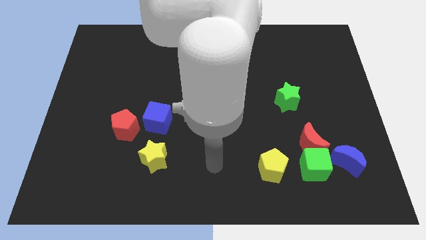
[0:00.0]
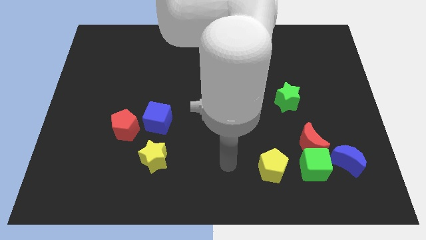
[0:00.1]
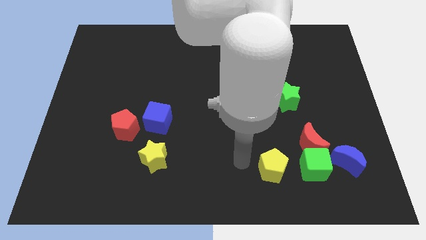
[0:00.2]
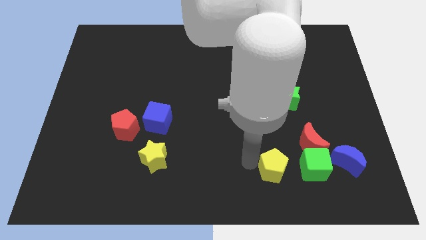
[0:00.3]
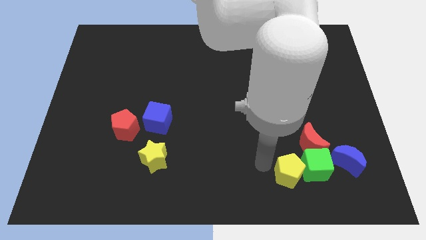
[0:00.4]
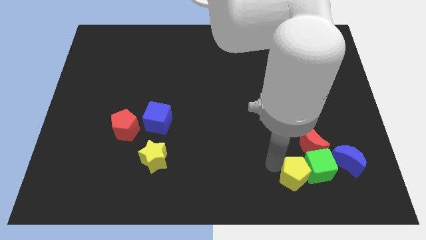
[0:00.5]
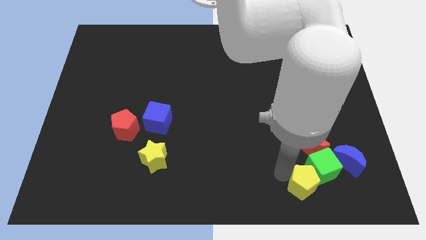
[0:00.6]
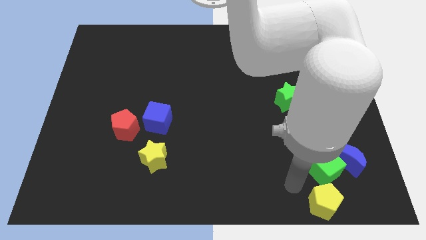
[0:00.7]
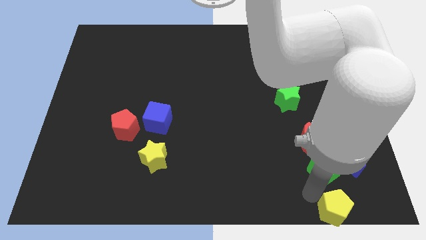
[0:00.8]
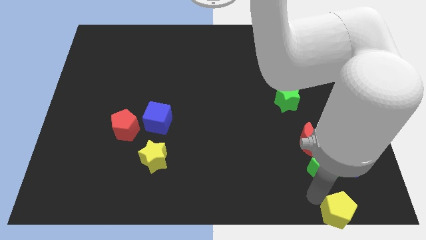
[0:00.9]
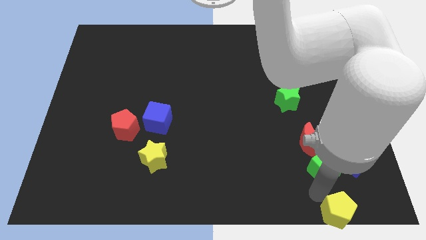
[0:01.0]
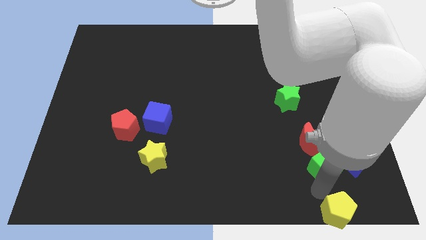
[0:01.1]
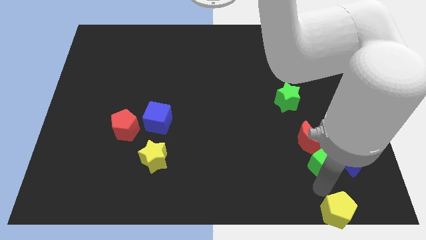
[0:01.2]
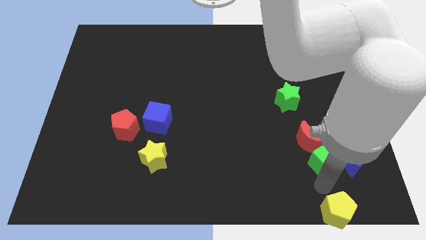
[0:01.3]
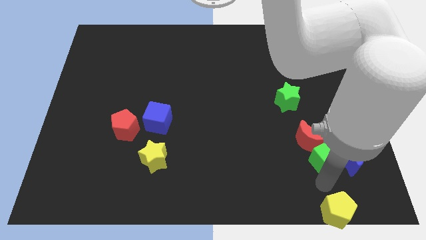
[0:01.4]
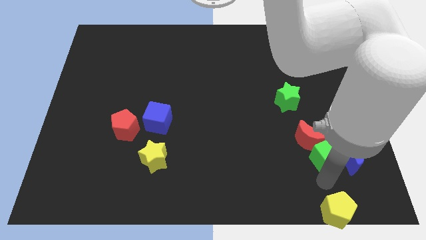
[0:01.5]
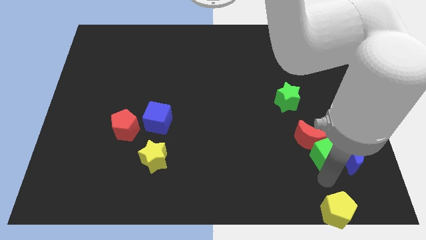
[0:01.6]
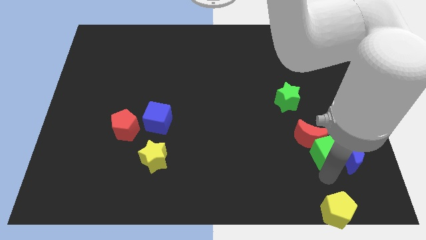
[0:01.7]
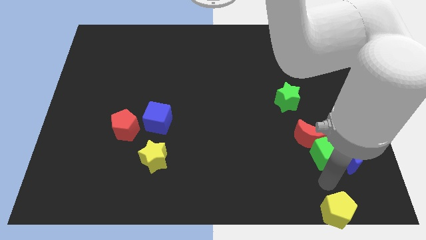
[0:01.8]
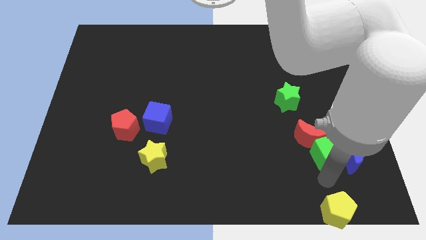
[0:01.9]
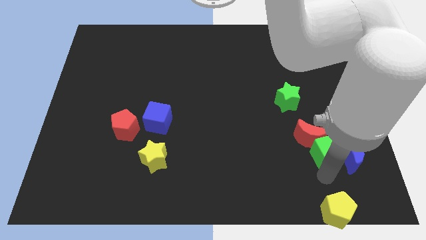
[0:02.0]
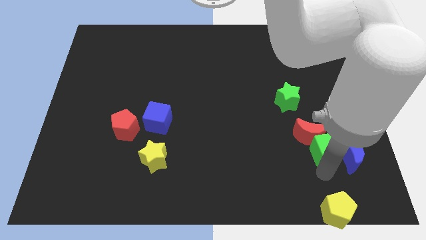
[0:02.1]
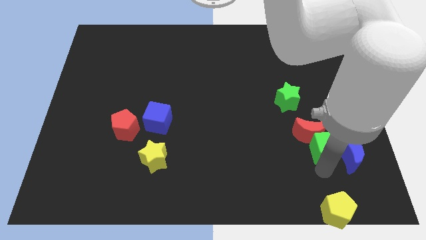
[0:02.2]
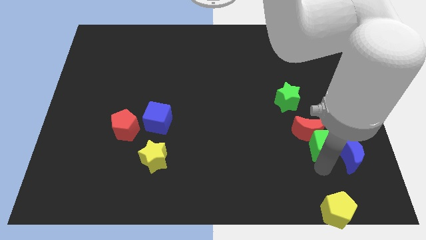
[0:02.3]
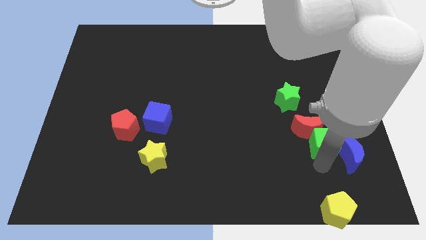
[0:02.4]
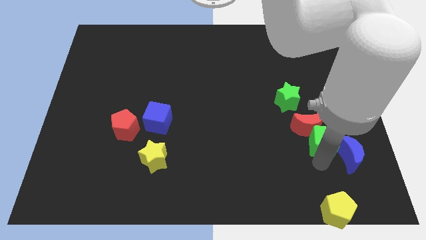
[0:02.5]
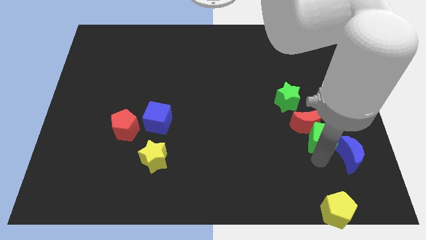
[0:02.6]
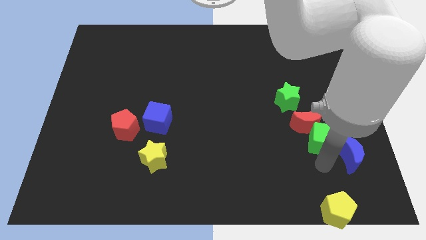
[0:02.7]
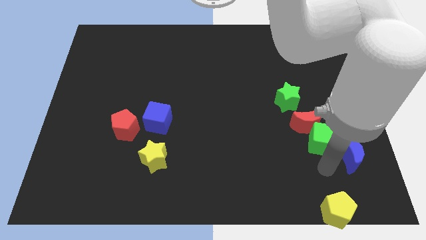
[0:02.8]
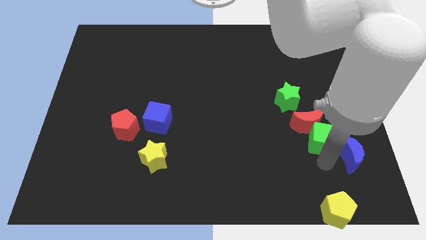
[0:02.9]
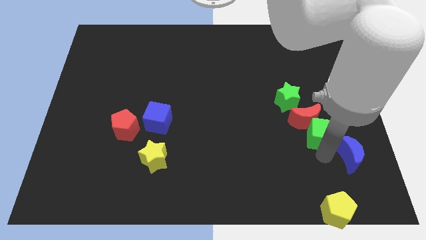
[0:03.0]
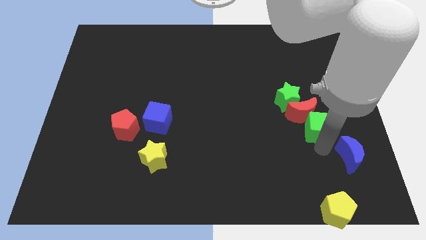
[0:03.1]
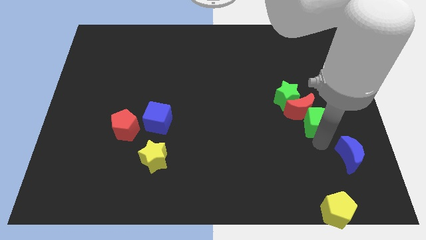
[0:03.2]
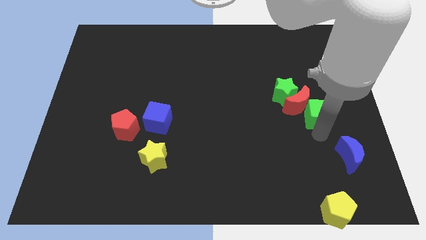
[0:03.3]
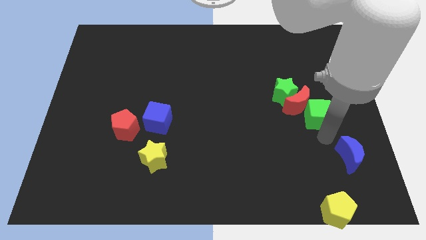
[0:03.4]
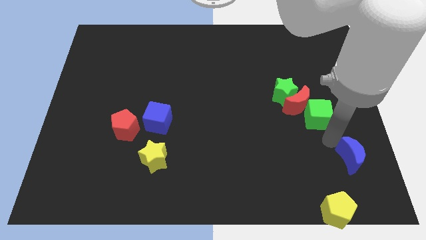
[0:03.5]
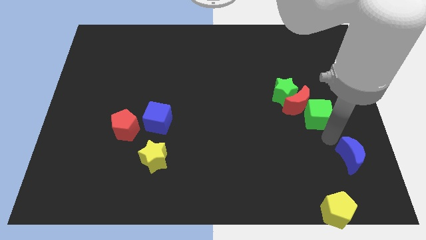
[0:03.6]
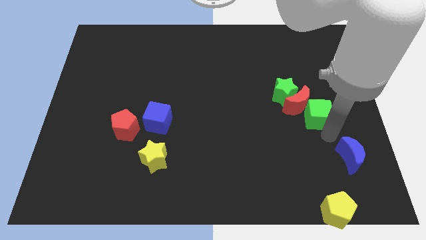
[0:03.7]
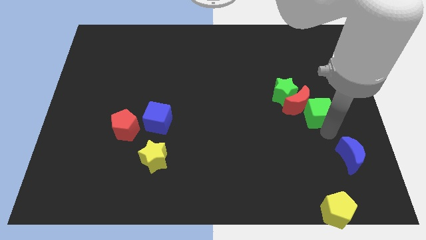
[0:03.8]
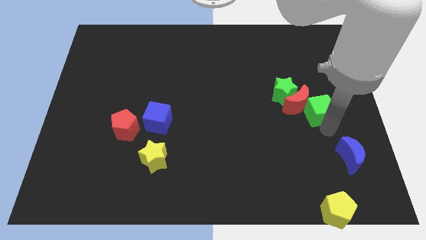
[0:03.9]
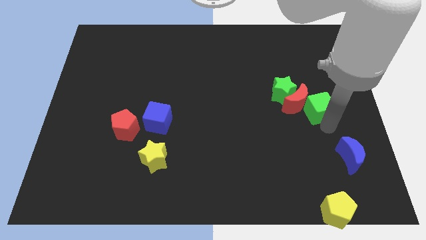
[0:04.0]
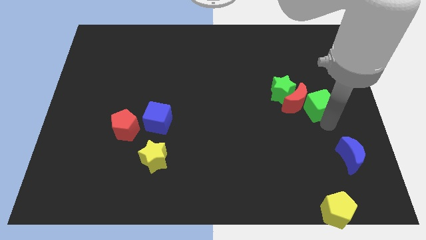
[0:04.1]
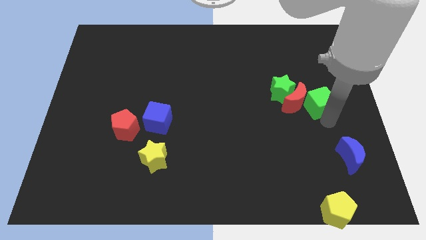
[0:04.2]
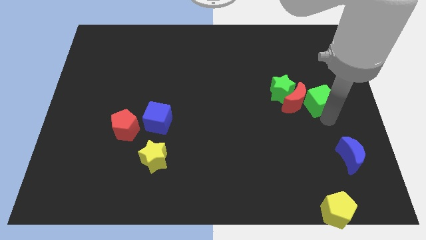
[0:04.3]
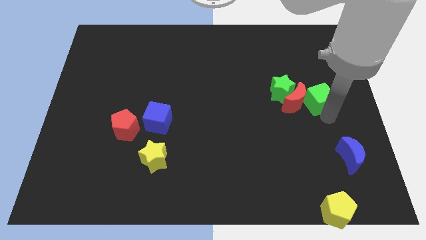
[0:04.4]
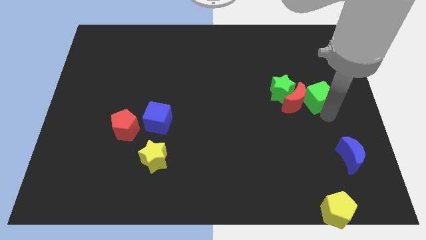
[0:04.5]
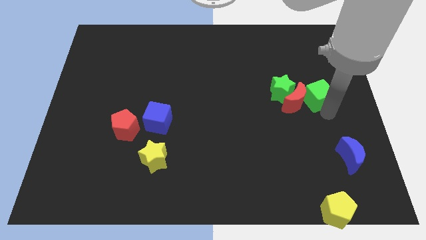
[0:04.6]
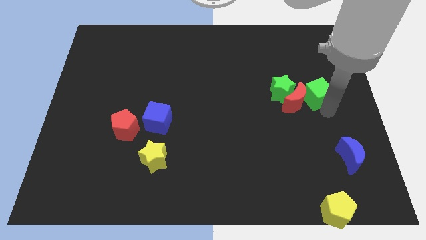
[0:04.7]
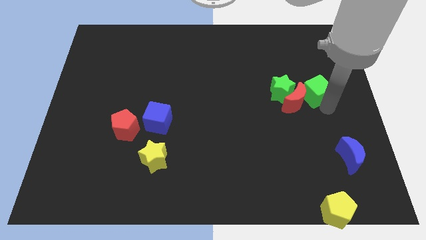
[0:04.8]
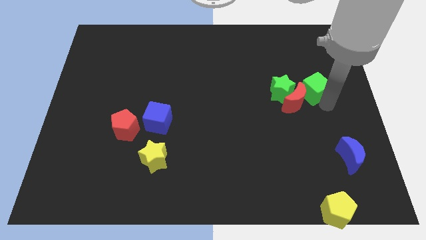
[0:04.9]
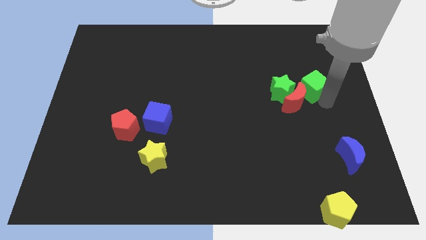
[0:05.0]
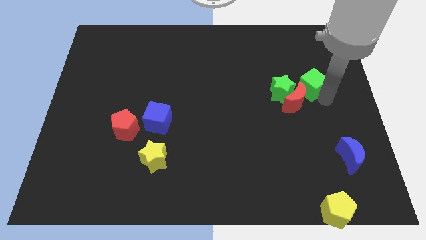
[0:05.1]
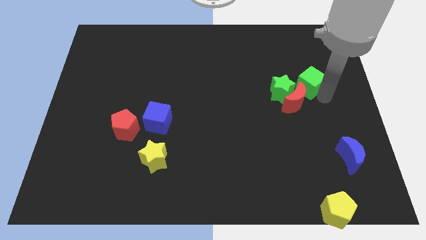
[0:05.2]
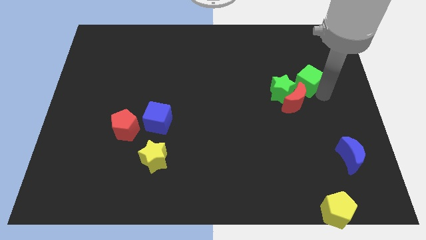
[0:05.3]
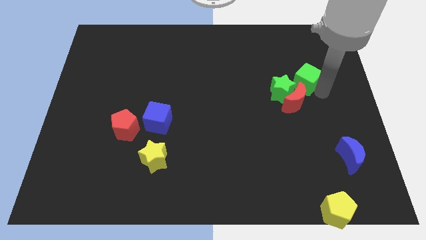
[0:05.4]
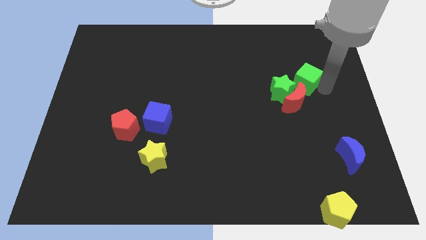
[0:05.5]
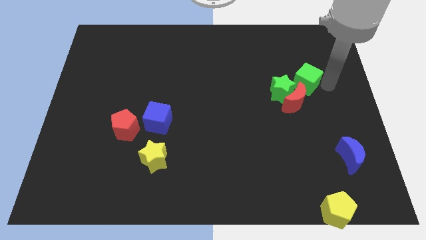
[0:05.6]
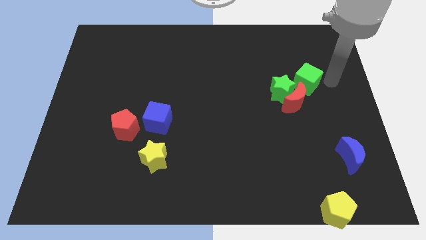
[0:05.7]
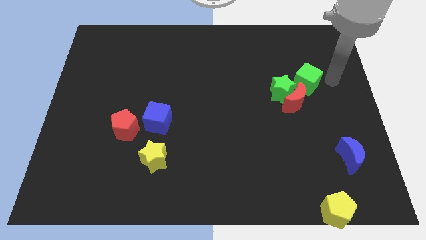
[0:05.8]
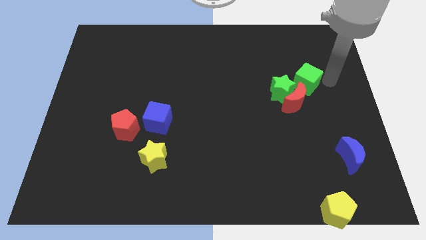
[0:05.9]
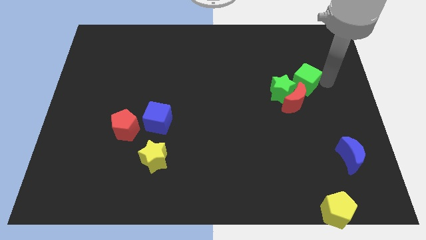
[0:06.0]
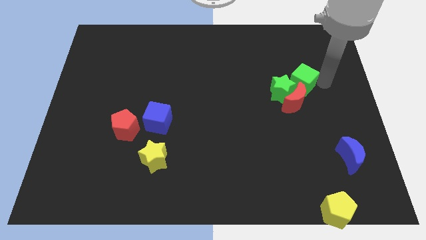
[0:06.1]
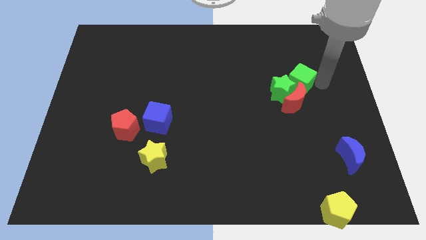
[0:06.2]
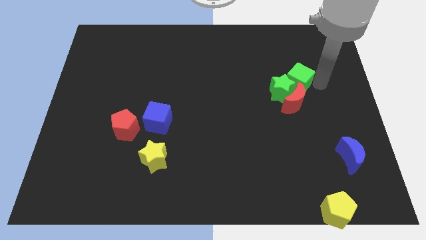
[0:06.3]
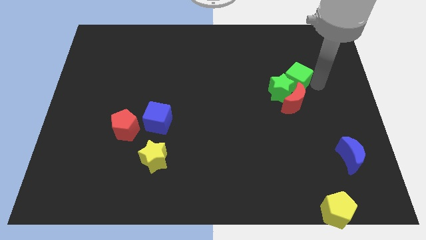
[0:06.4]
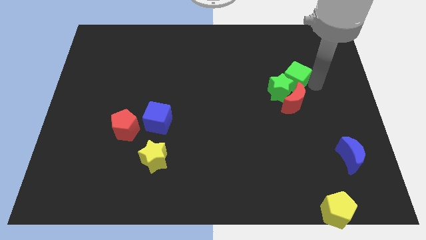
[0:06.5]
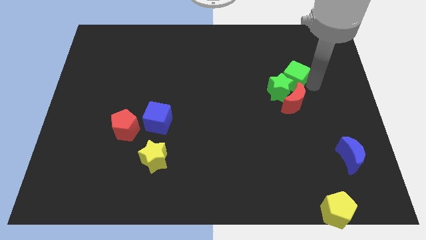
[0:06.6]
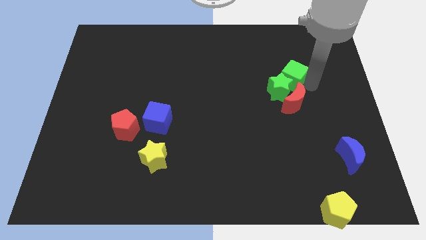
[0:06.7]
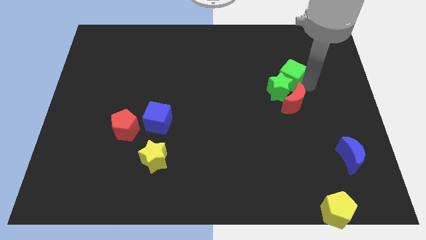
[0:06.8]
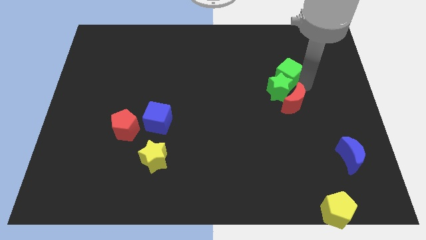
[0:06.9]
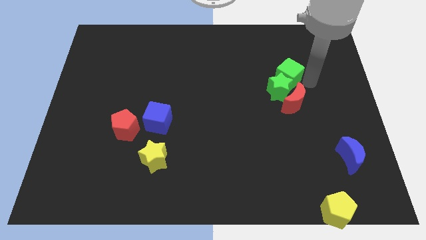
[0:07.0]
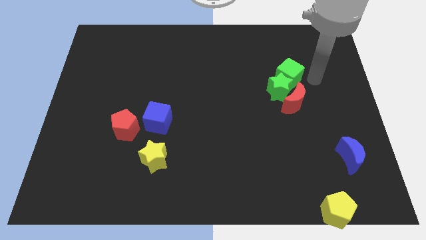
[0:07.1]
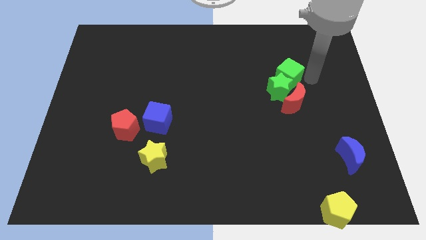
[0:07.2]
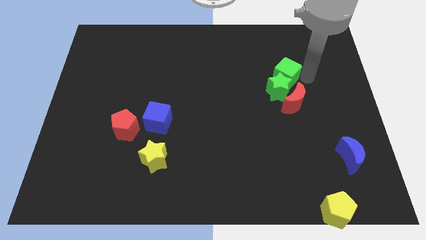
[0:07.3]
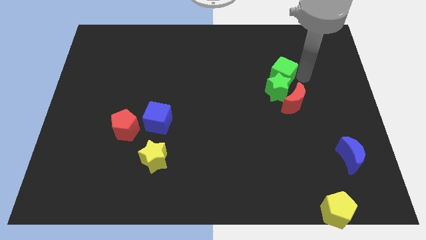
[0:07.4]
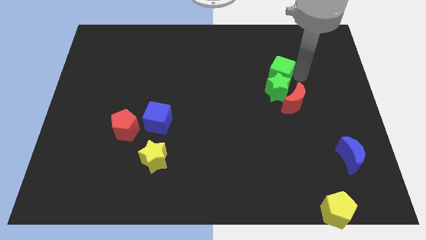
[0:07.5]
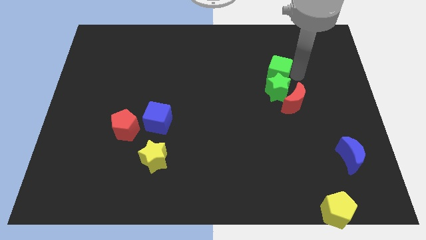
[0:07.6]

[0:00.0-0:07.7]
push the green cube diagonally up and to the left of the green star
